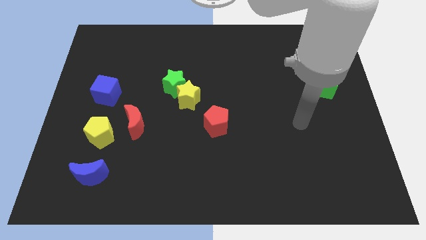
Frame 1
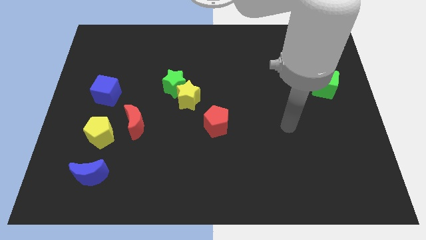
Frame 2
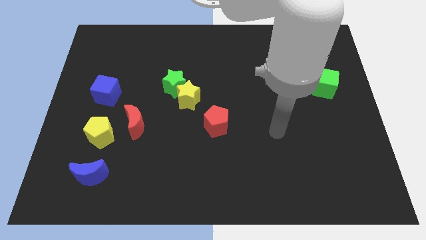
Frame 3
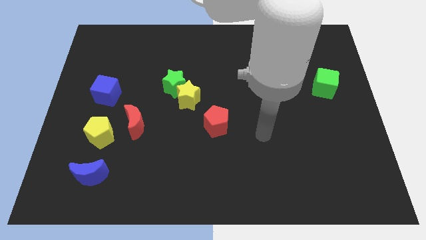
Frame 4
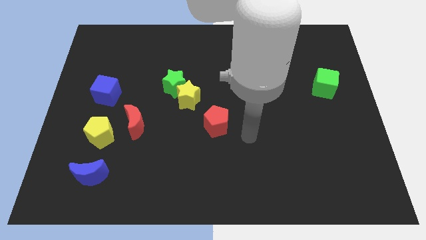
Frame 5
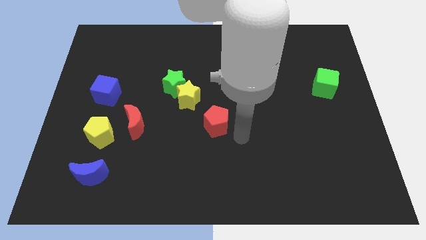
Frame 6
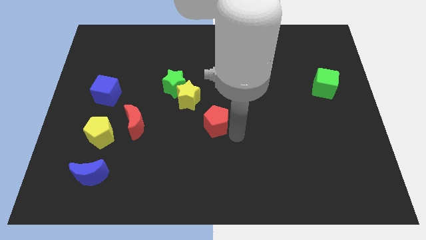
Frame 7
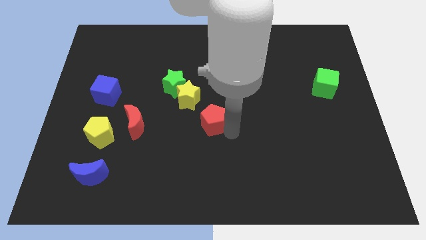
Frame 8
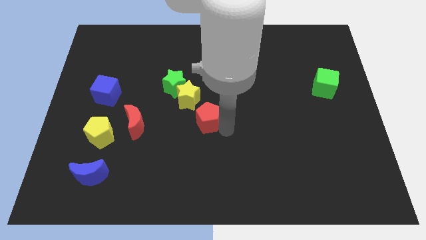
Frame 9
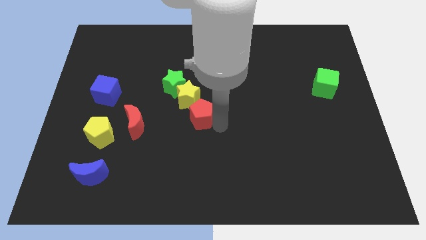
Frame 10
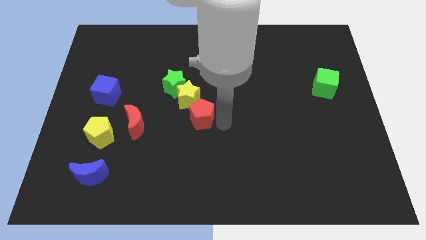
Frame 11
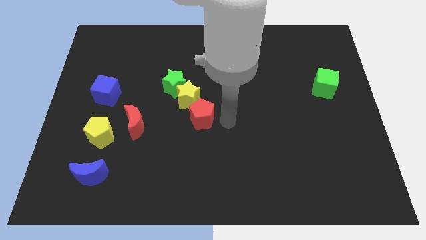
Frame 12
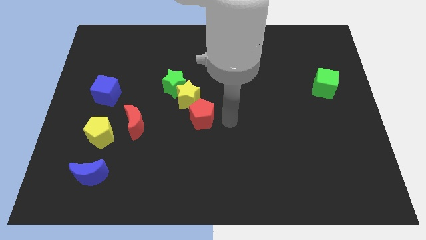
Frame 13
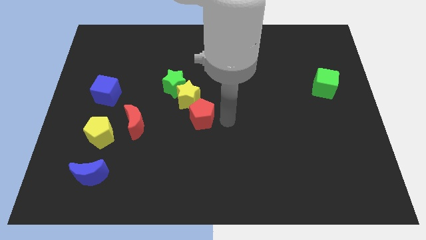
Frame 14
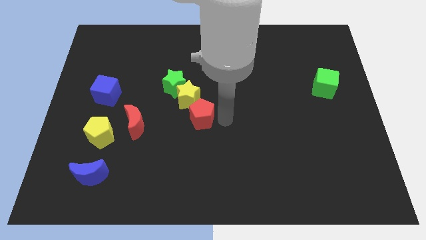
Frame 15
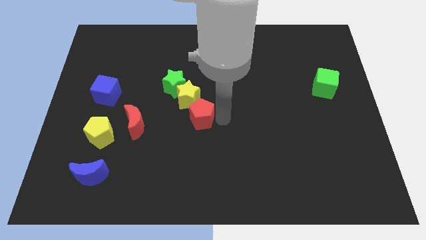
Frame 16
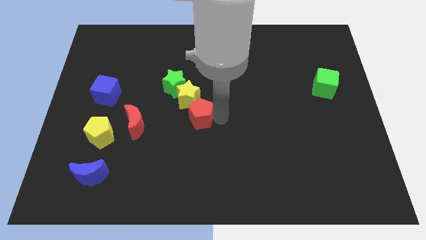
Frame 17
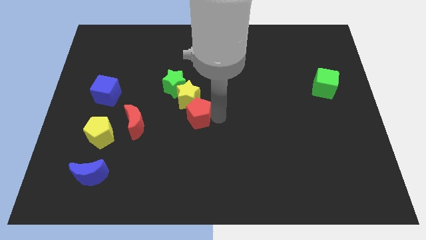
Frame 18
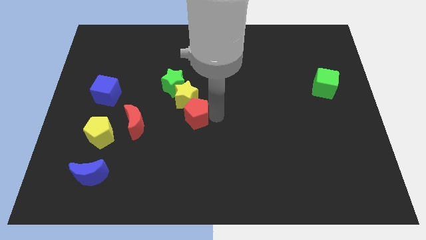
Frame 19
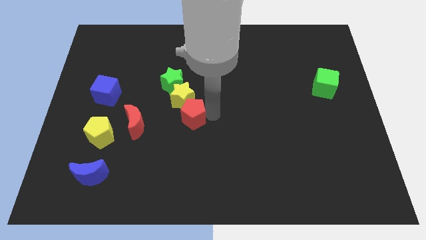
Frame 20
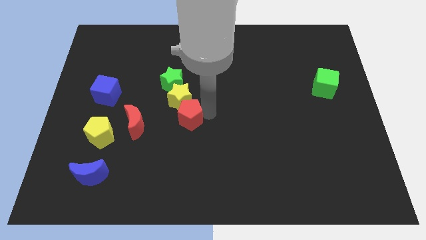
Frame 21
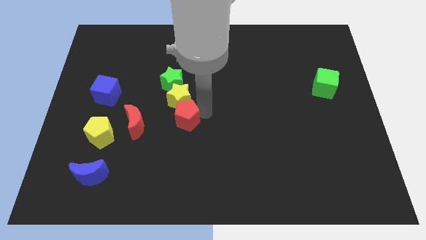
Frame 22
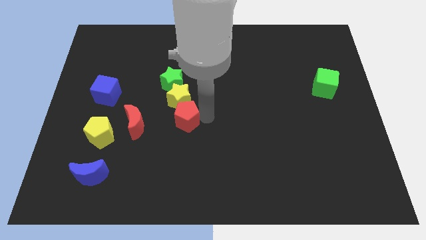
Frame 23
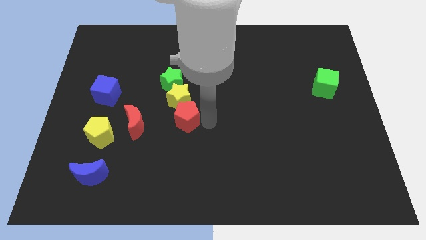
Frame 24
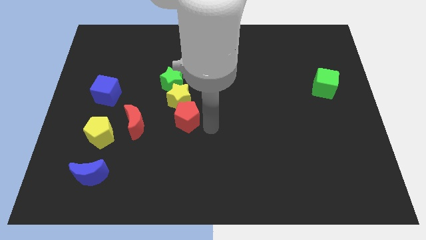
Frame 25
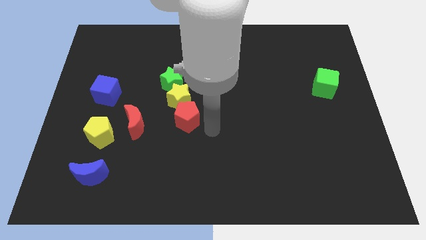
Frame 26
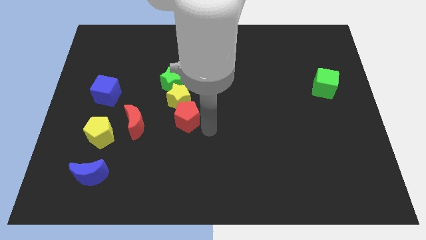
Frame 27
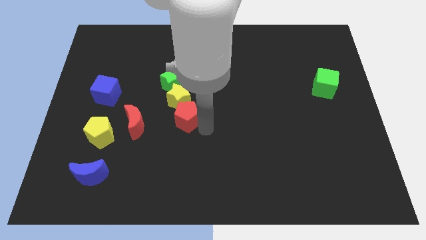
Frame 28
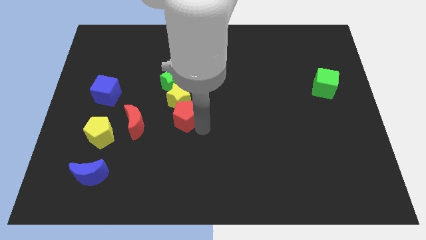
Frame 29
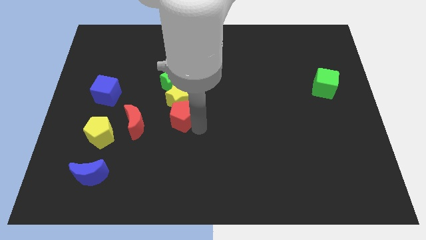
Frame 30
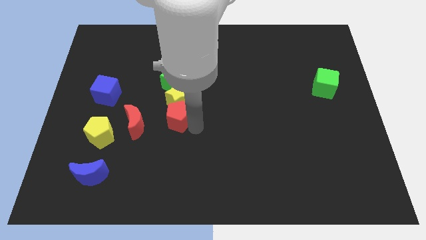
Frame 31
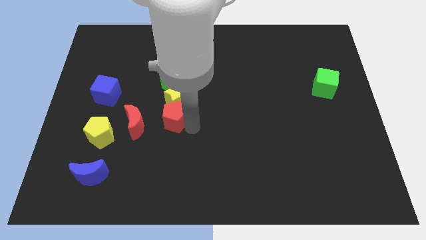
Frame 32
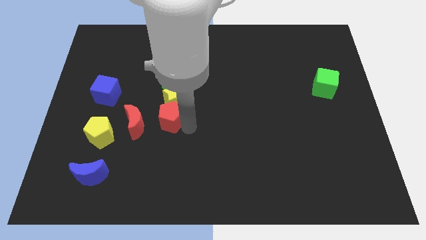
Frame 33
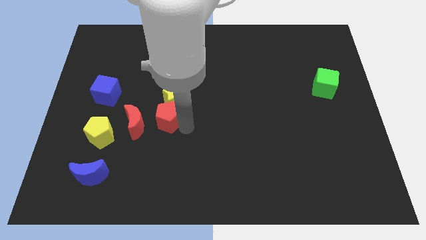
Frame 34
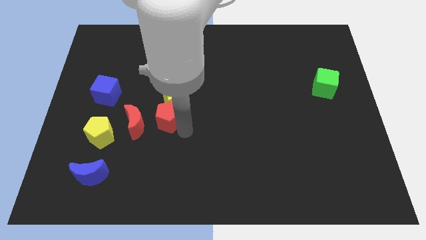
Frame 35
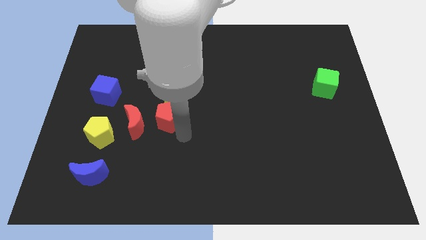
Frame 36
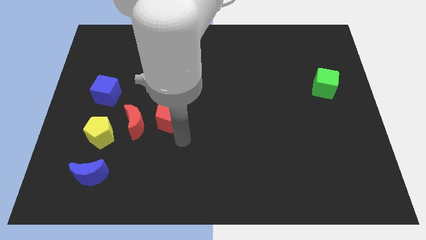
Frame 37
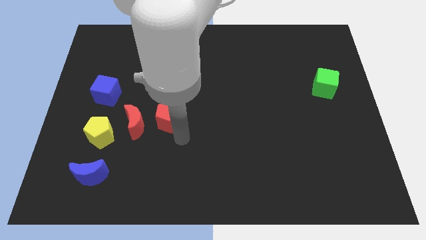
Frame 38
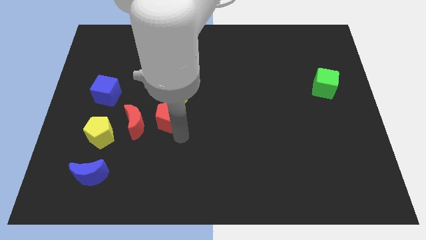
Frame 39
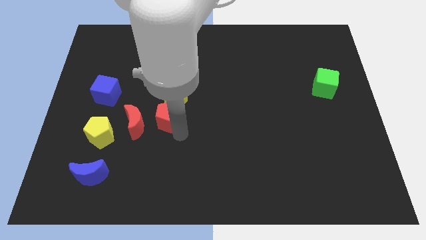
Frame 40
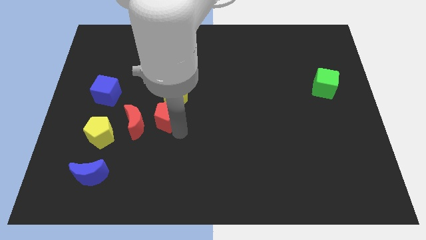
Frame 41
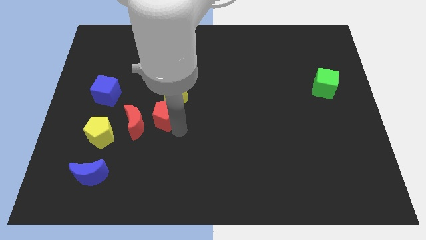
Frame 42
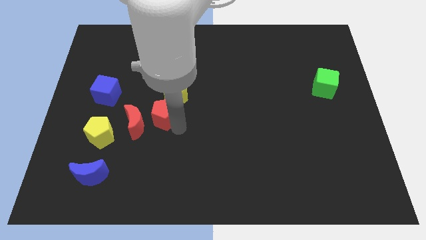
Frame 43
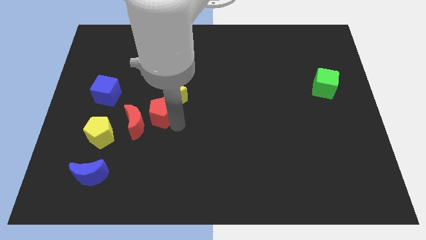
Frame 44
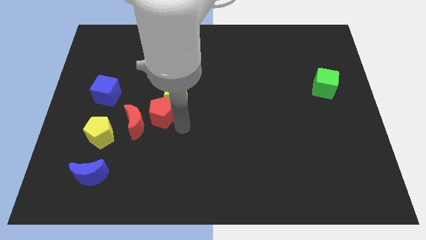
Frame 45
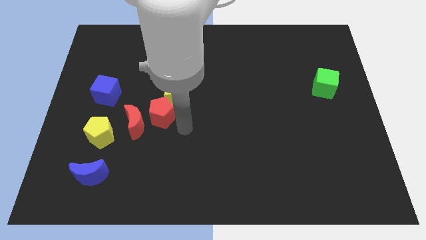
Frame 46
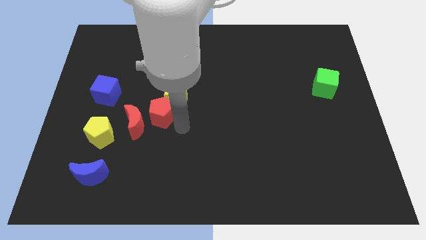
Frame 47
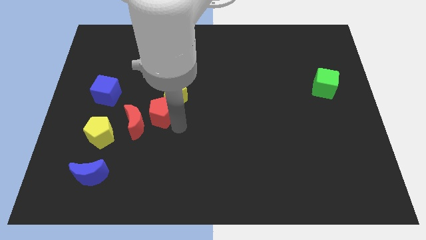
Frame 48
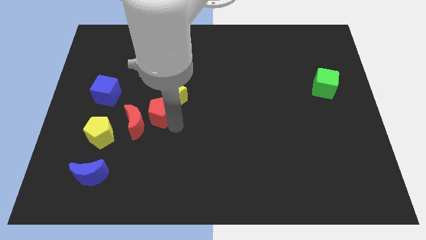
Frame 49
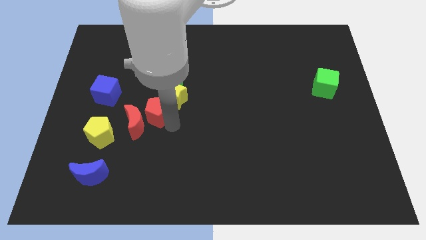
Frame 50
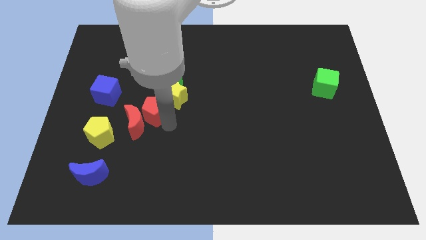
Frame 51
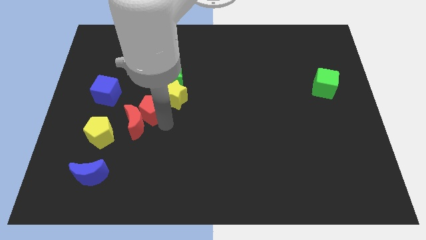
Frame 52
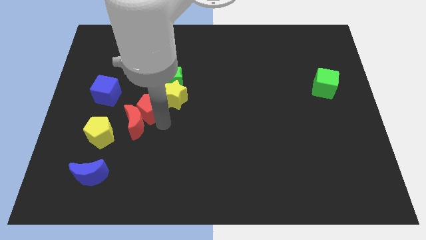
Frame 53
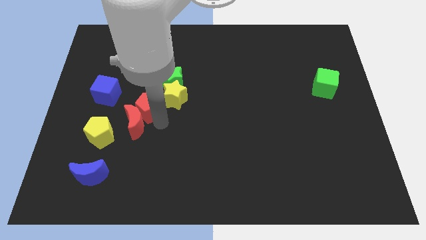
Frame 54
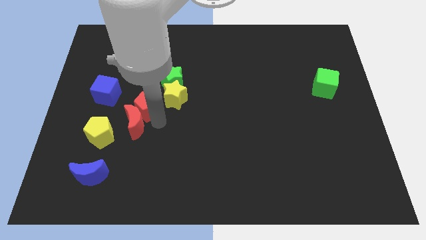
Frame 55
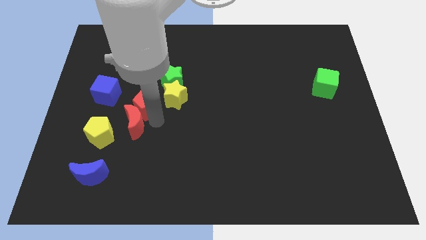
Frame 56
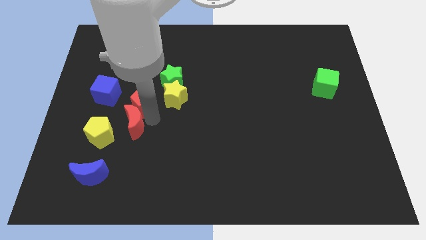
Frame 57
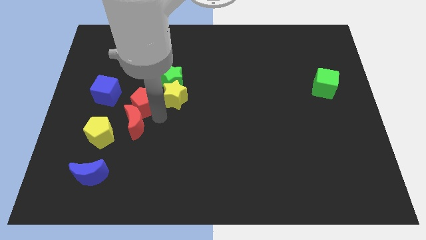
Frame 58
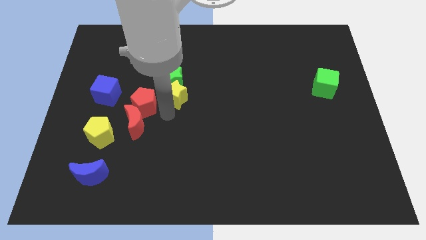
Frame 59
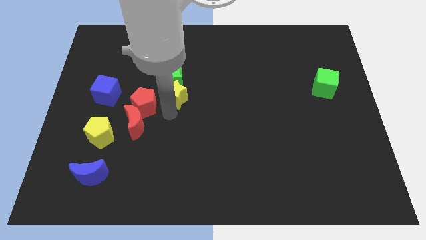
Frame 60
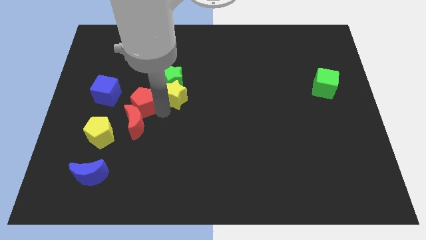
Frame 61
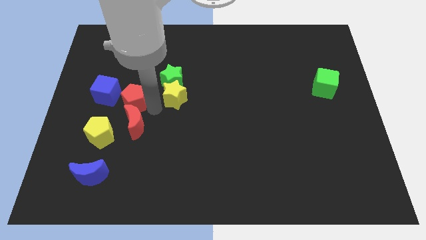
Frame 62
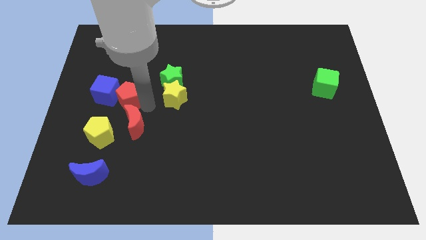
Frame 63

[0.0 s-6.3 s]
put the red pentagon close to the blue cube

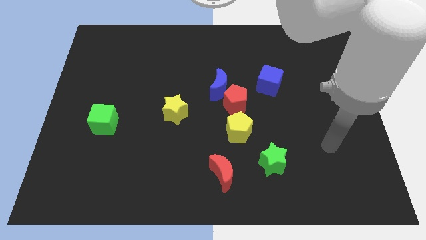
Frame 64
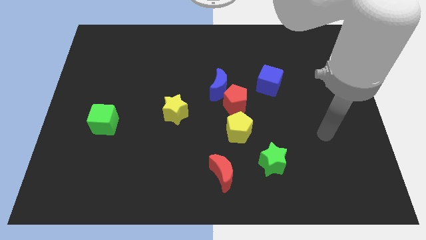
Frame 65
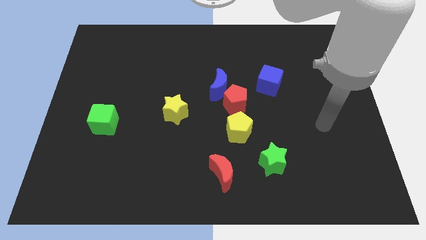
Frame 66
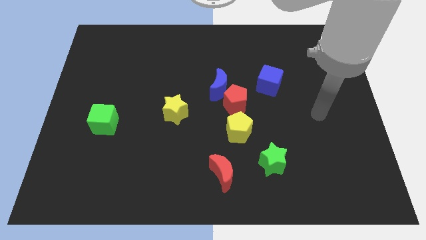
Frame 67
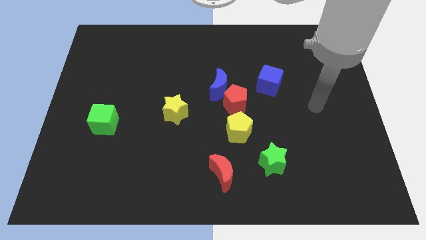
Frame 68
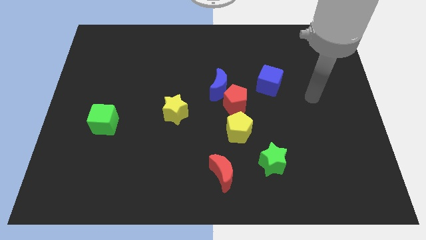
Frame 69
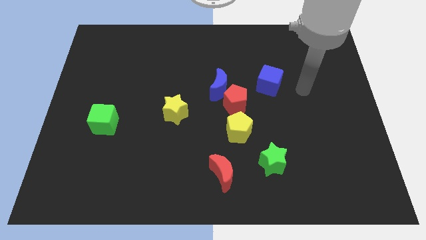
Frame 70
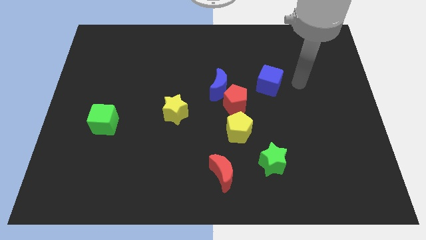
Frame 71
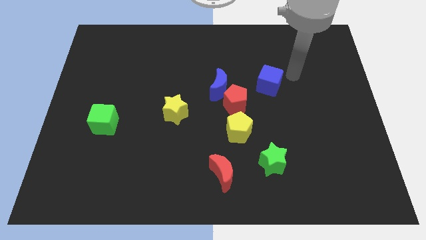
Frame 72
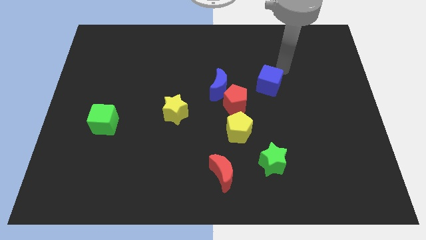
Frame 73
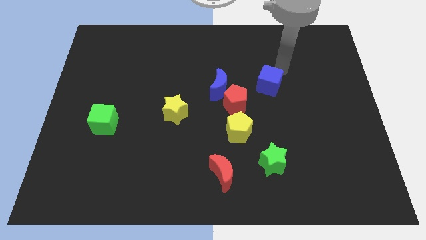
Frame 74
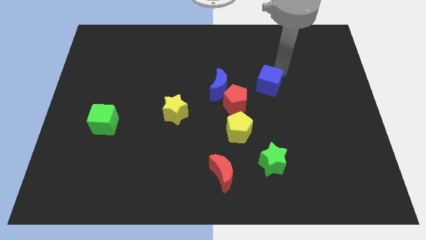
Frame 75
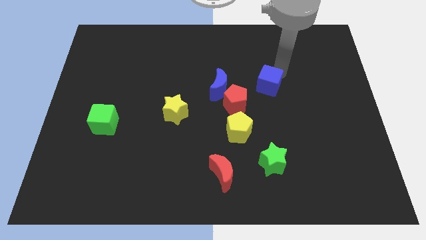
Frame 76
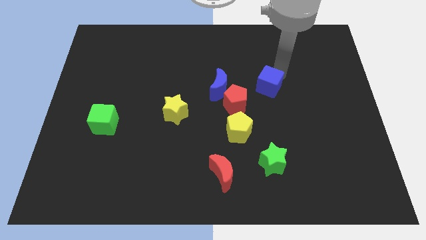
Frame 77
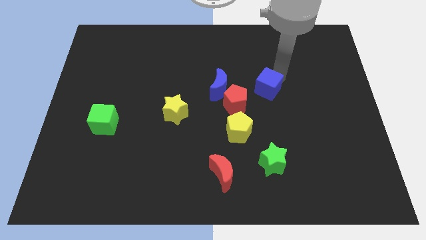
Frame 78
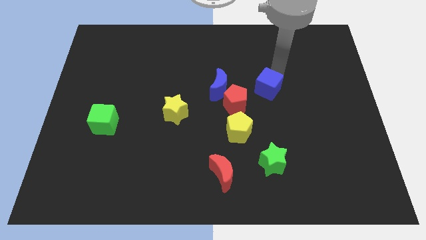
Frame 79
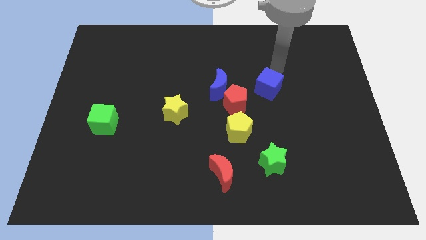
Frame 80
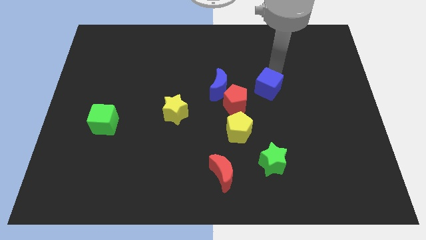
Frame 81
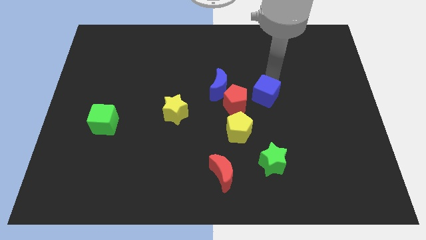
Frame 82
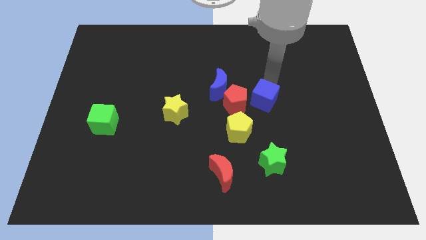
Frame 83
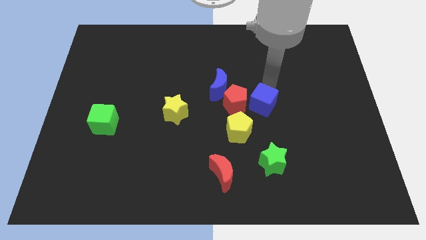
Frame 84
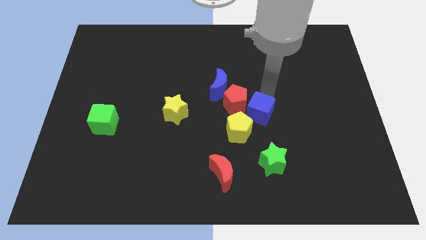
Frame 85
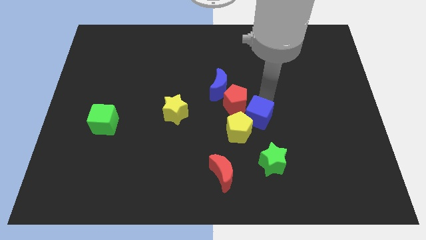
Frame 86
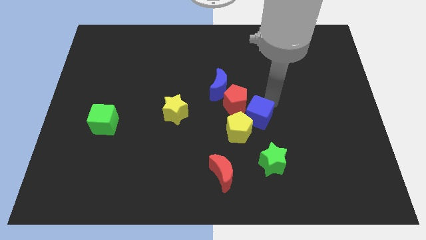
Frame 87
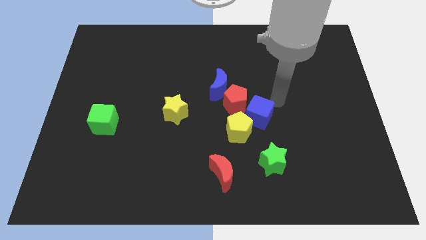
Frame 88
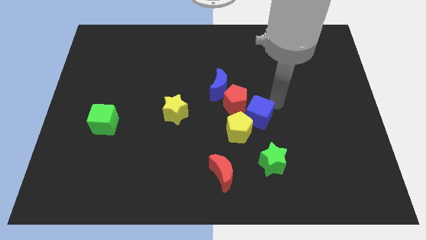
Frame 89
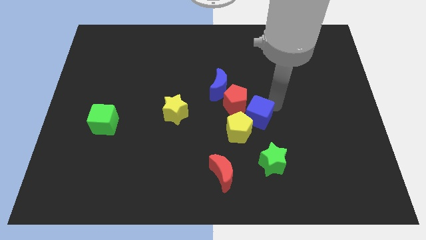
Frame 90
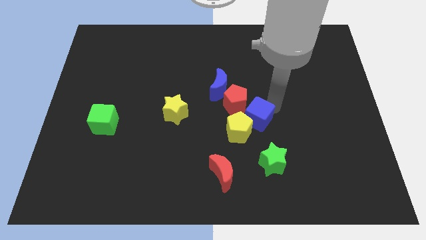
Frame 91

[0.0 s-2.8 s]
move the blue cube close to the yellow pentagon
